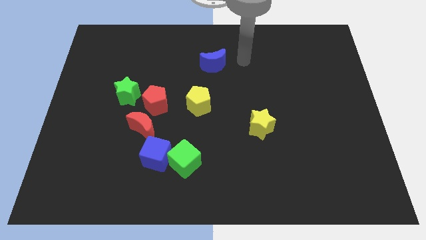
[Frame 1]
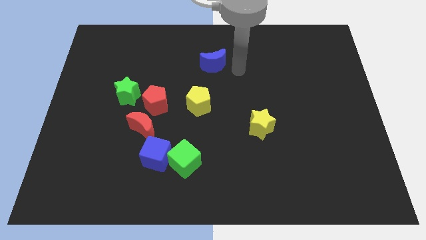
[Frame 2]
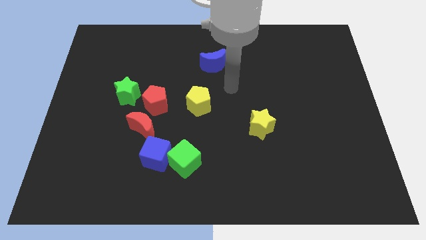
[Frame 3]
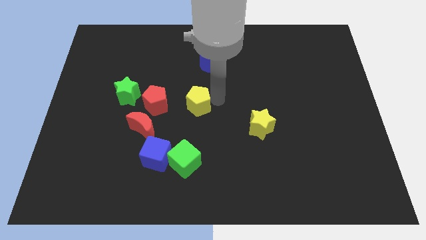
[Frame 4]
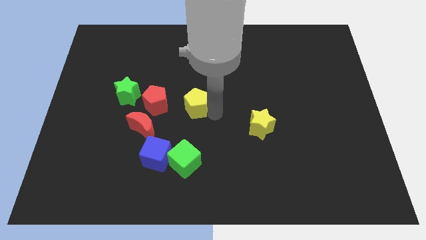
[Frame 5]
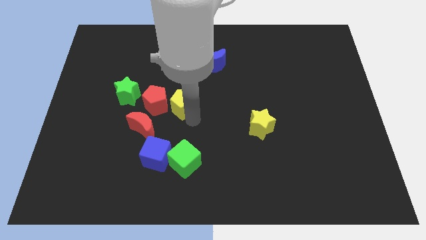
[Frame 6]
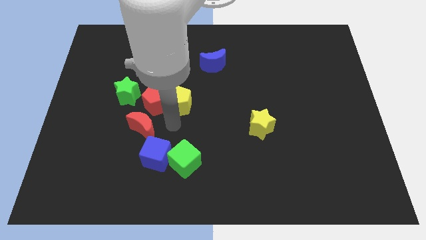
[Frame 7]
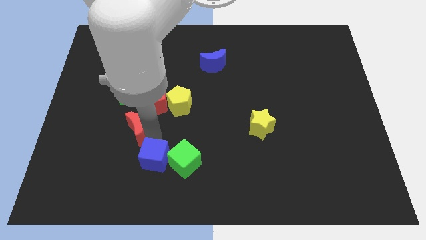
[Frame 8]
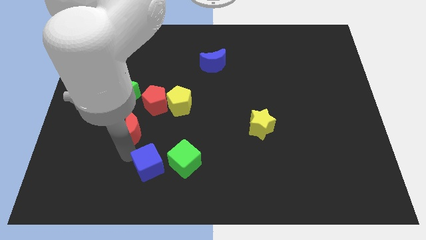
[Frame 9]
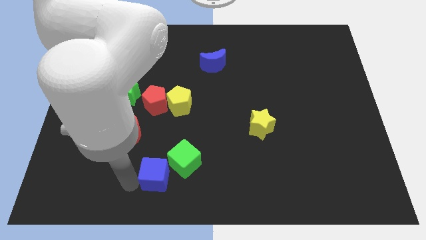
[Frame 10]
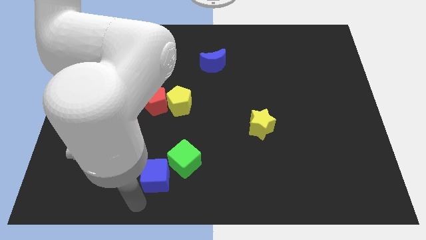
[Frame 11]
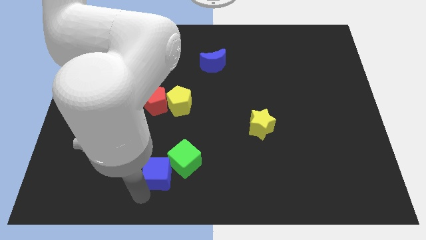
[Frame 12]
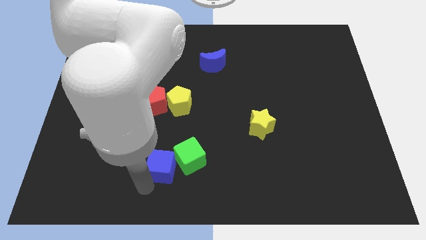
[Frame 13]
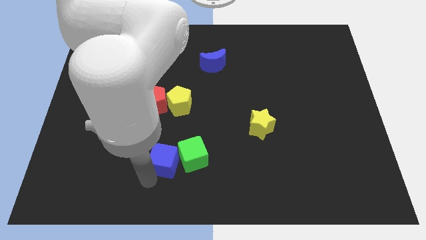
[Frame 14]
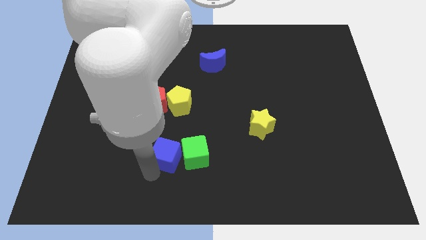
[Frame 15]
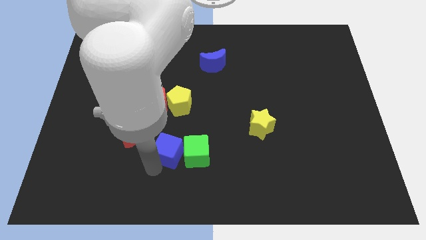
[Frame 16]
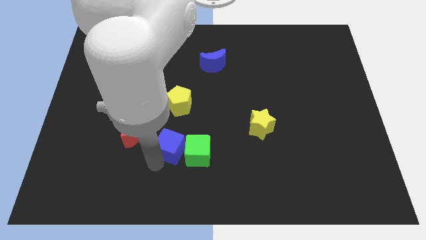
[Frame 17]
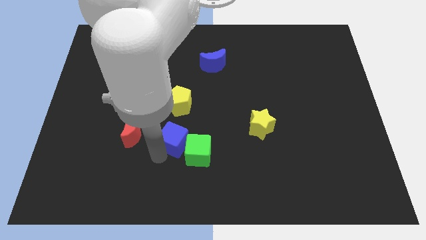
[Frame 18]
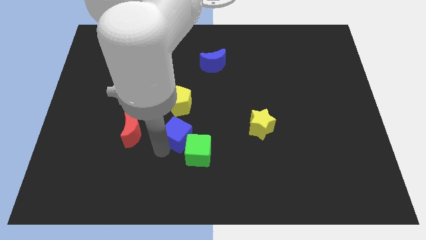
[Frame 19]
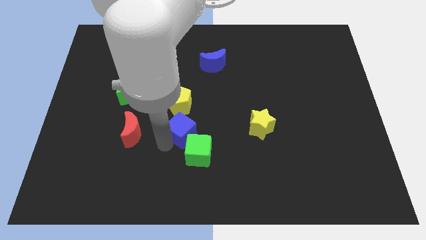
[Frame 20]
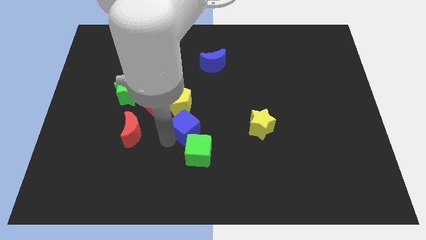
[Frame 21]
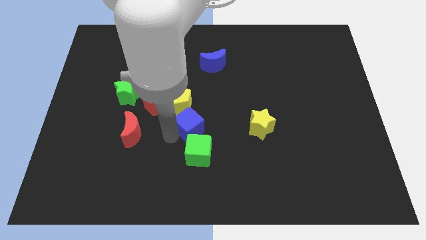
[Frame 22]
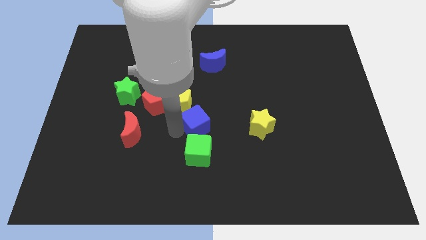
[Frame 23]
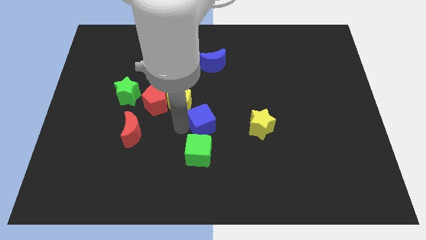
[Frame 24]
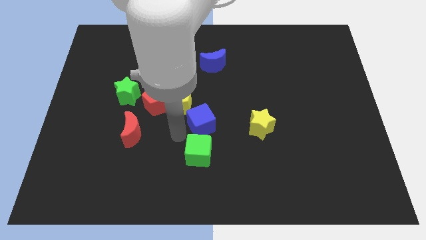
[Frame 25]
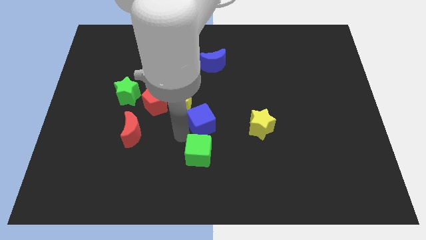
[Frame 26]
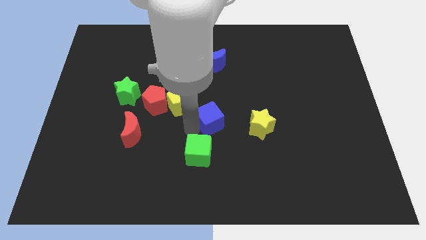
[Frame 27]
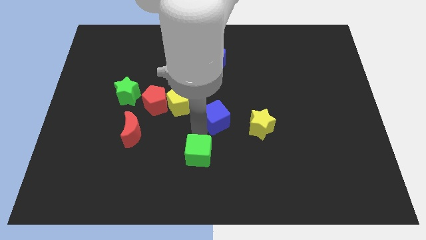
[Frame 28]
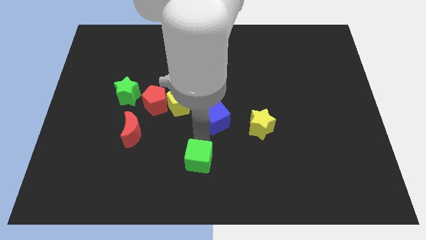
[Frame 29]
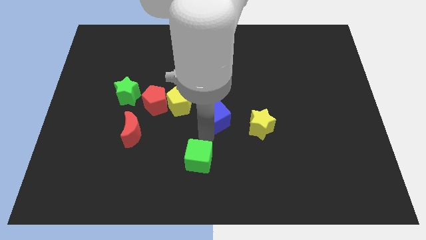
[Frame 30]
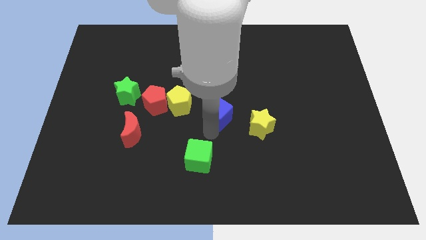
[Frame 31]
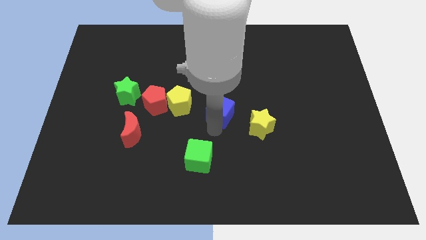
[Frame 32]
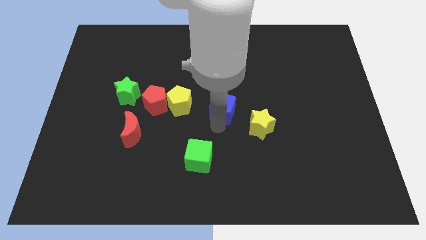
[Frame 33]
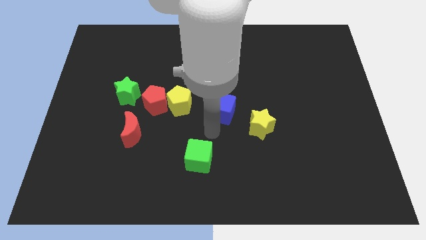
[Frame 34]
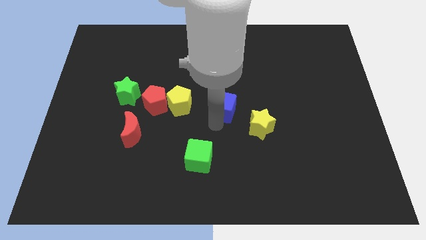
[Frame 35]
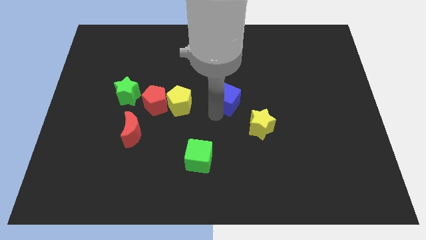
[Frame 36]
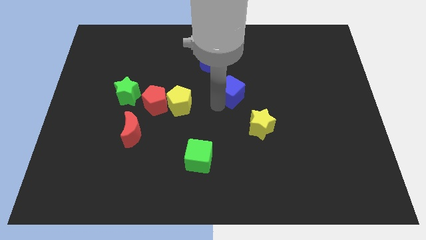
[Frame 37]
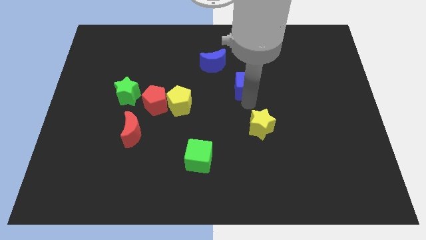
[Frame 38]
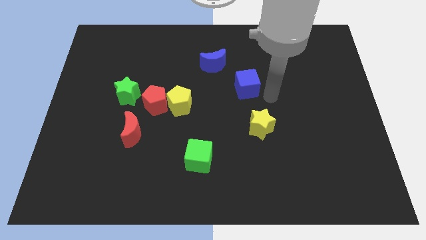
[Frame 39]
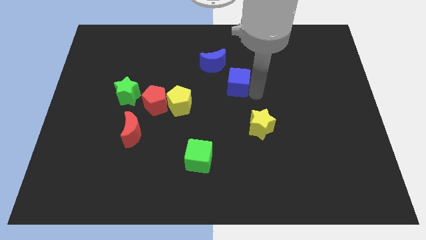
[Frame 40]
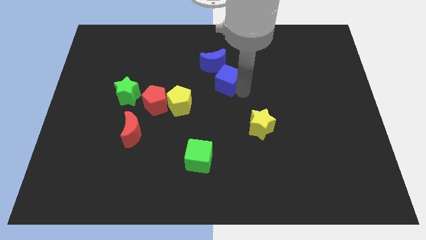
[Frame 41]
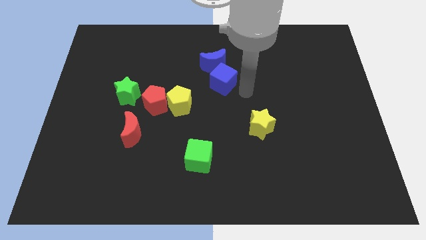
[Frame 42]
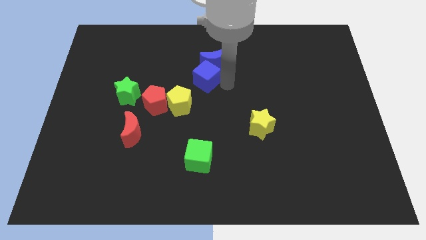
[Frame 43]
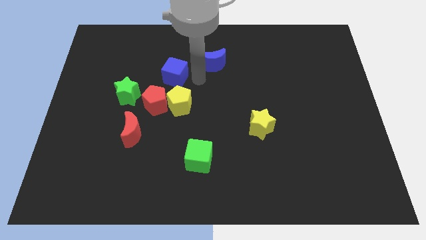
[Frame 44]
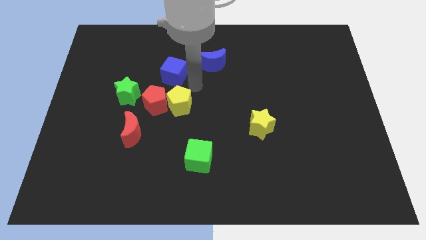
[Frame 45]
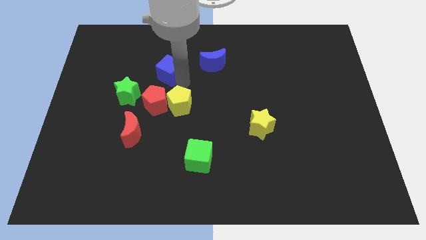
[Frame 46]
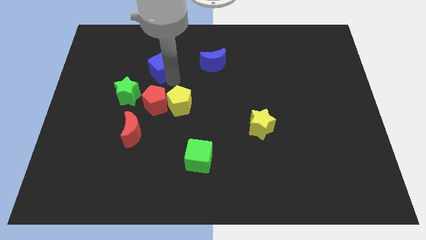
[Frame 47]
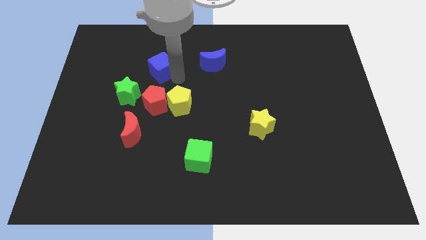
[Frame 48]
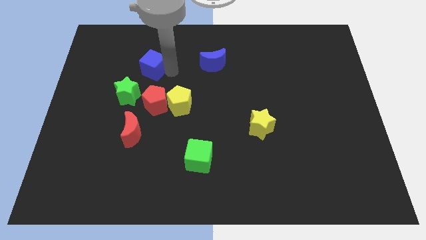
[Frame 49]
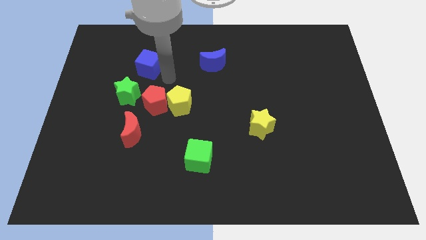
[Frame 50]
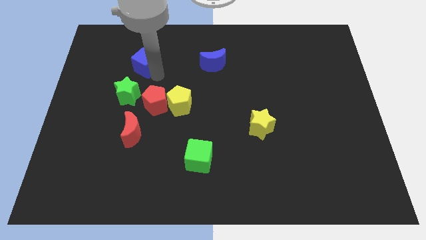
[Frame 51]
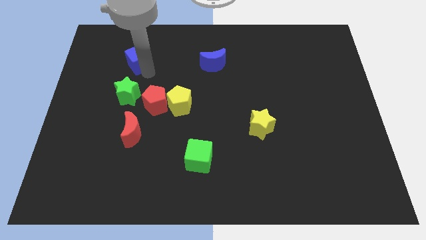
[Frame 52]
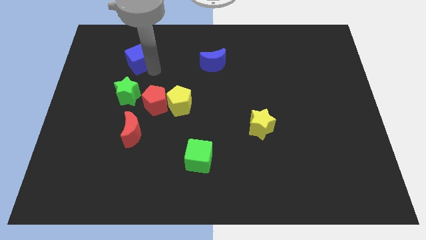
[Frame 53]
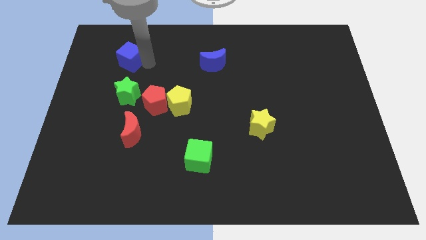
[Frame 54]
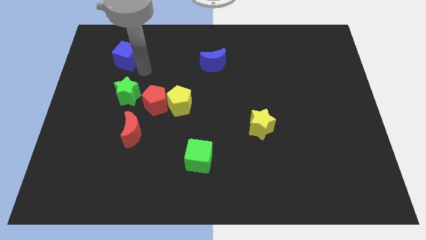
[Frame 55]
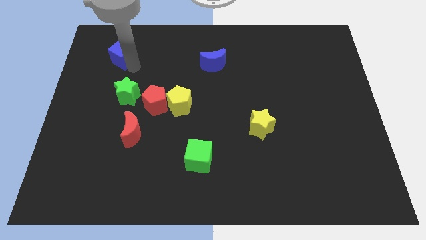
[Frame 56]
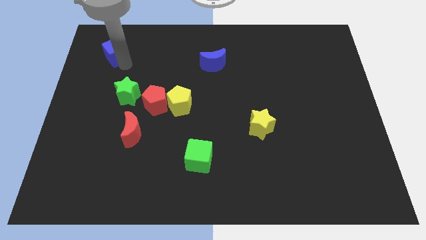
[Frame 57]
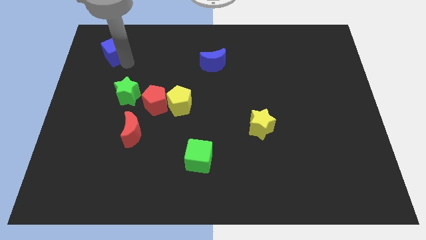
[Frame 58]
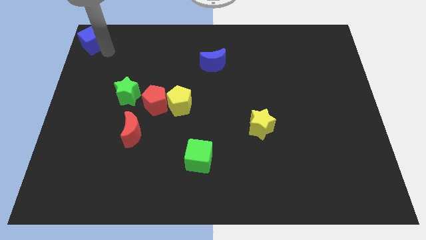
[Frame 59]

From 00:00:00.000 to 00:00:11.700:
put the blue cube to the top left corner

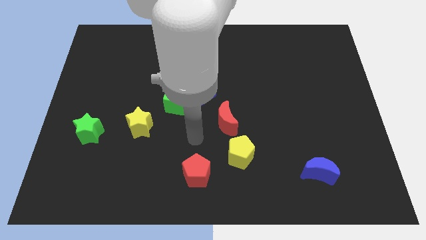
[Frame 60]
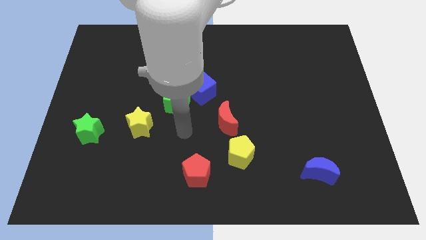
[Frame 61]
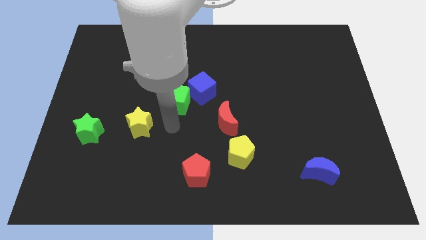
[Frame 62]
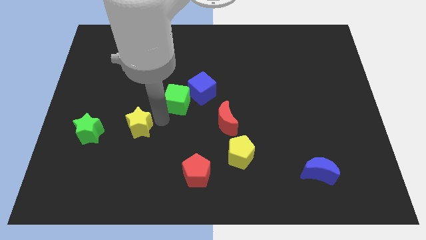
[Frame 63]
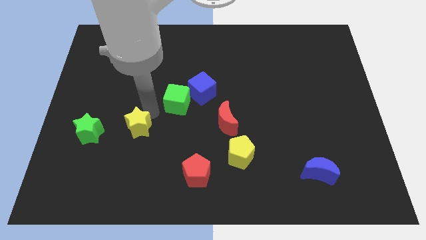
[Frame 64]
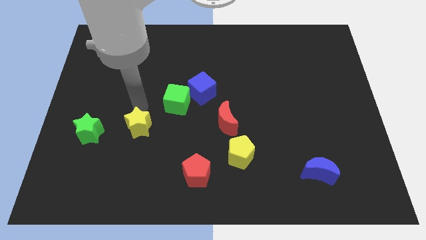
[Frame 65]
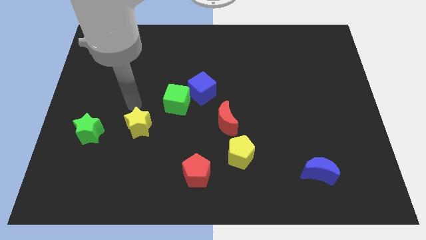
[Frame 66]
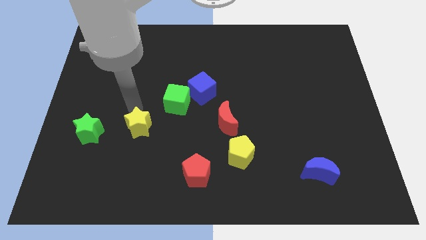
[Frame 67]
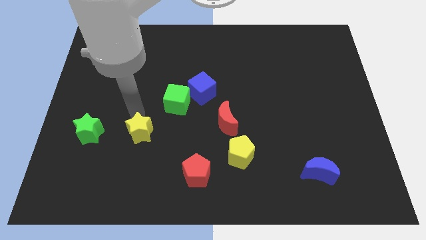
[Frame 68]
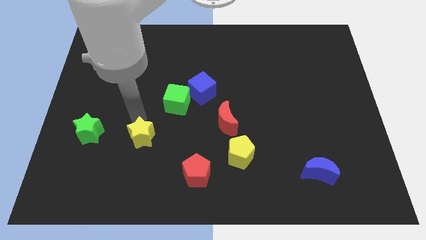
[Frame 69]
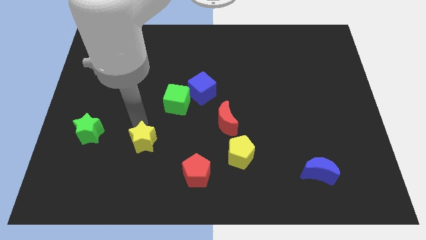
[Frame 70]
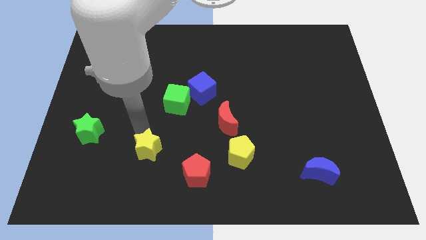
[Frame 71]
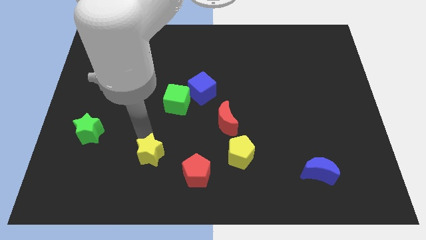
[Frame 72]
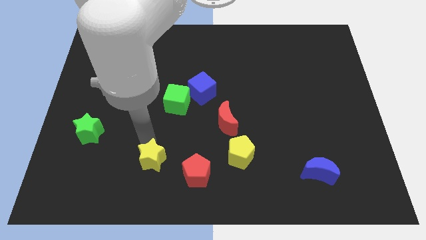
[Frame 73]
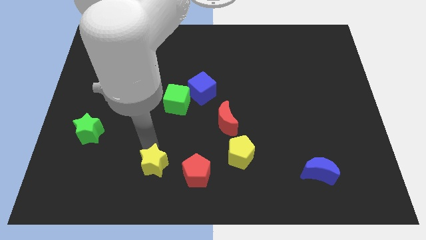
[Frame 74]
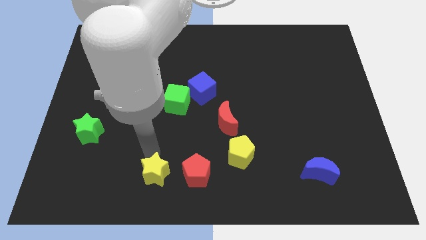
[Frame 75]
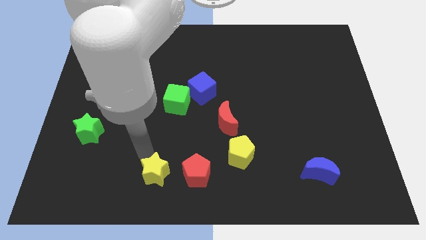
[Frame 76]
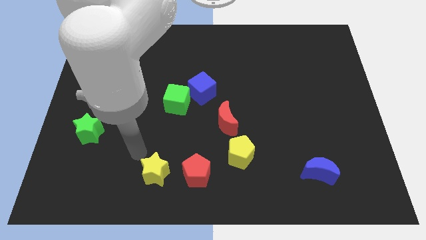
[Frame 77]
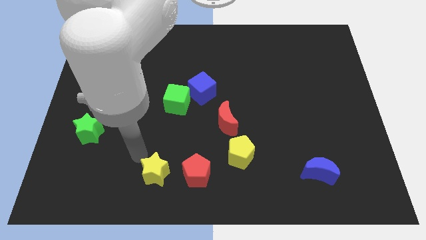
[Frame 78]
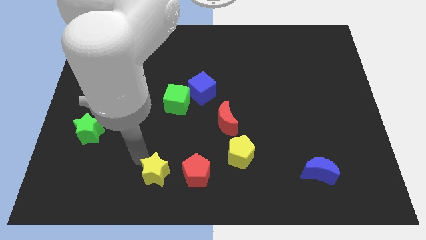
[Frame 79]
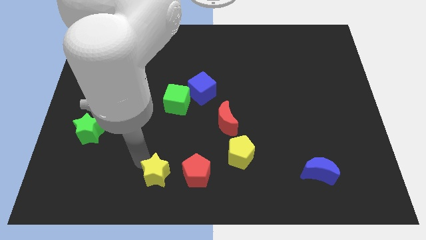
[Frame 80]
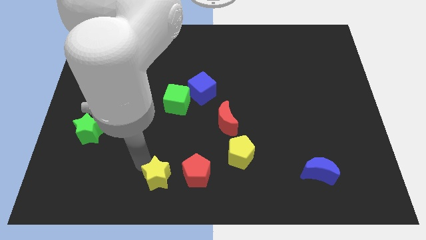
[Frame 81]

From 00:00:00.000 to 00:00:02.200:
put the yellow star to the bottom
